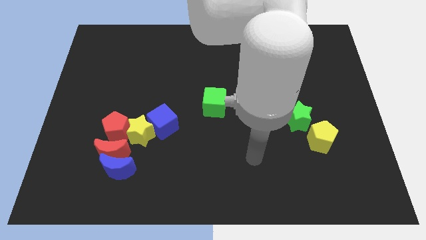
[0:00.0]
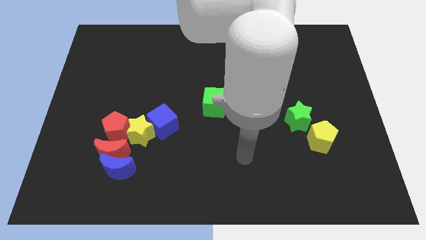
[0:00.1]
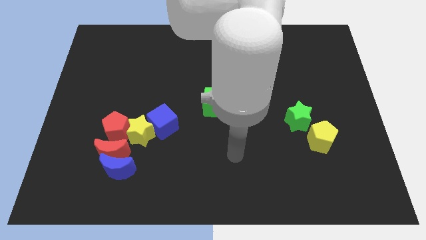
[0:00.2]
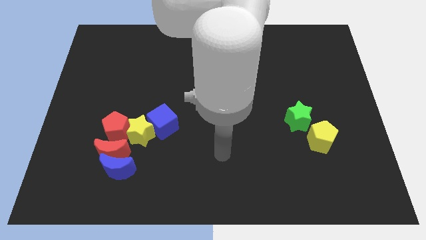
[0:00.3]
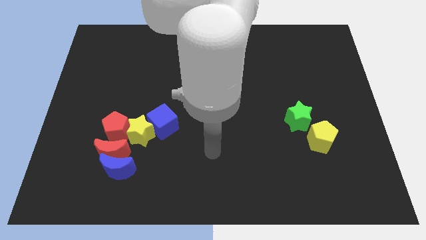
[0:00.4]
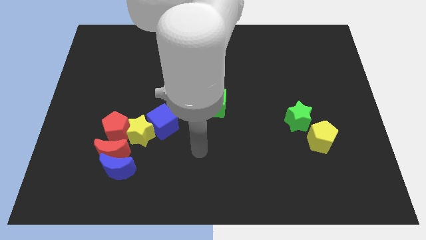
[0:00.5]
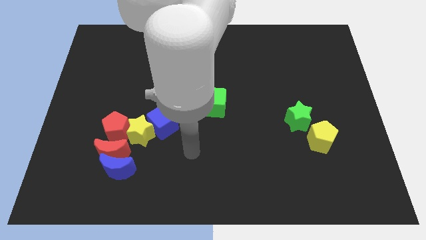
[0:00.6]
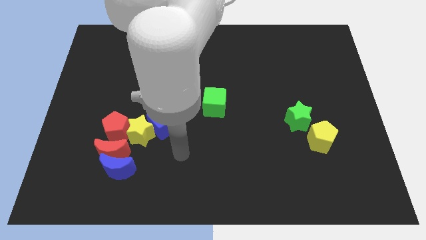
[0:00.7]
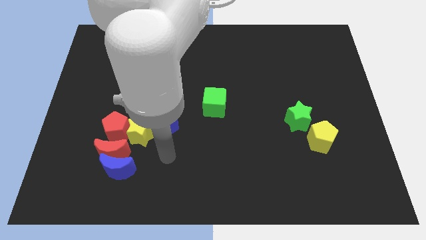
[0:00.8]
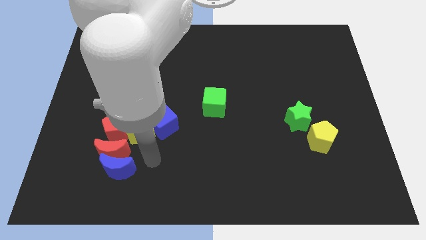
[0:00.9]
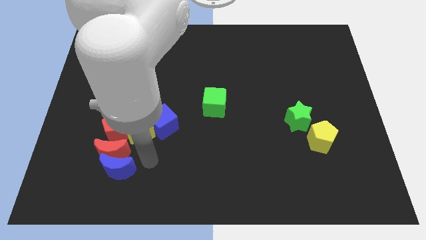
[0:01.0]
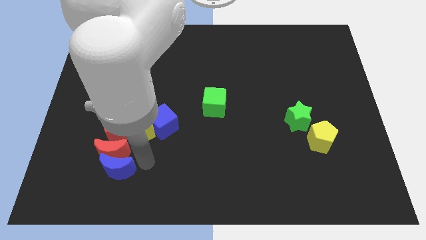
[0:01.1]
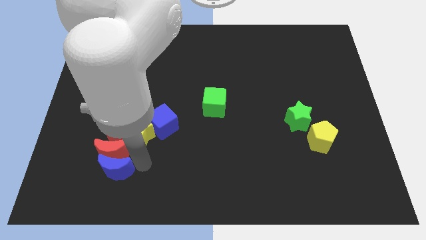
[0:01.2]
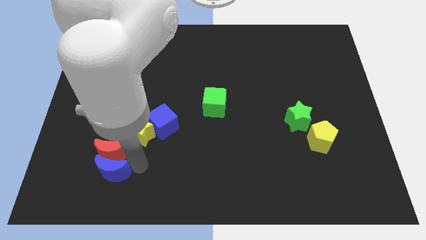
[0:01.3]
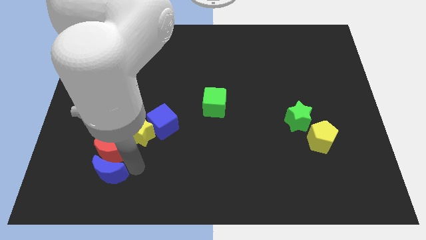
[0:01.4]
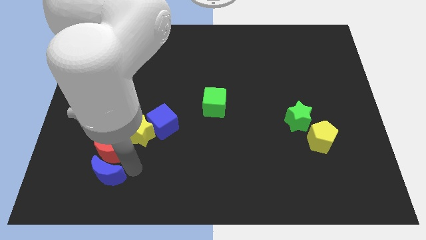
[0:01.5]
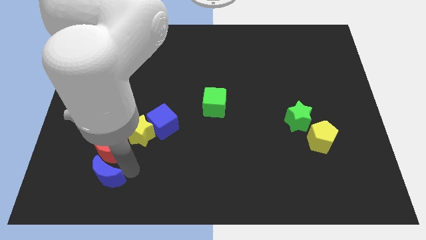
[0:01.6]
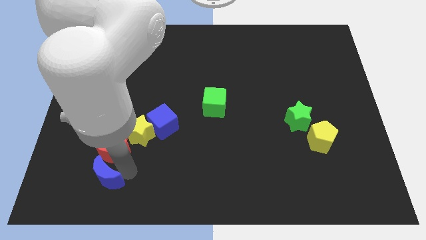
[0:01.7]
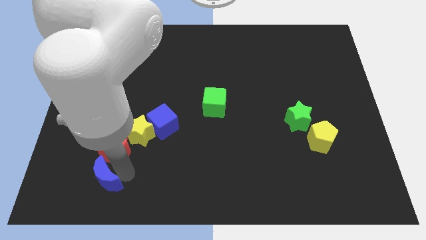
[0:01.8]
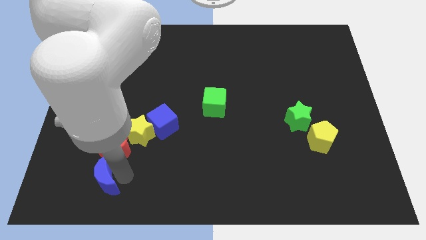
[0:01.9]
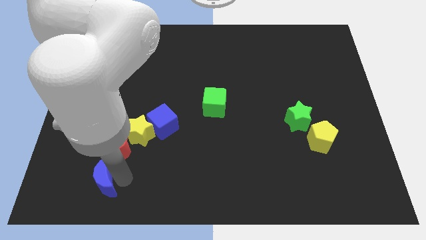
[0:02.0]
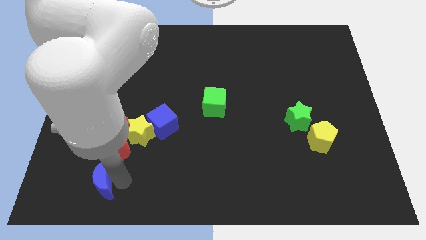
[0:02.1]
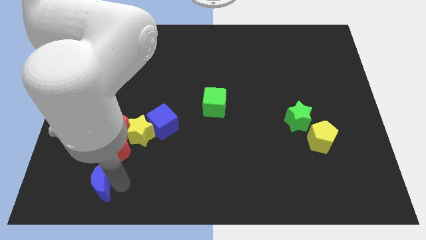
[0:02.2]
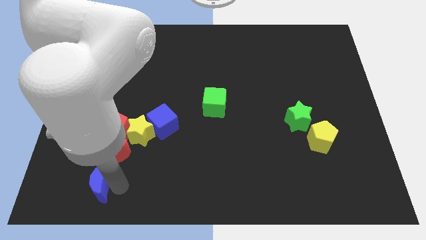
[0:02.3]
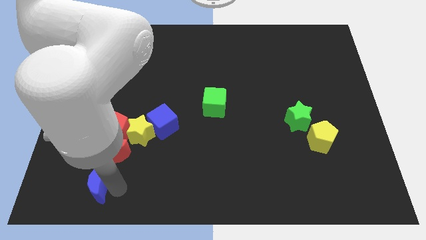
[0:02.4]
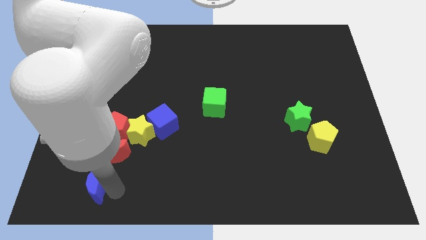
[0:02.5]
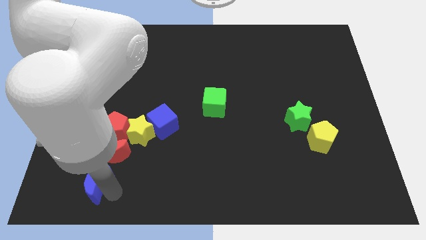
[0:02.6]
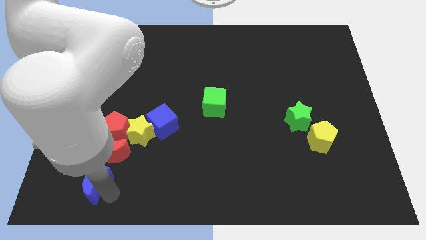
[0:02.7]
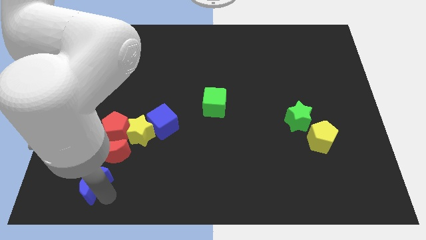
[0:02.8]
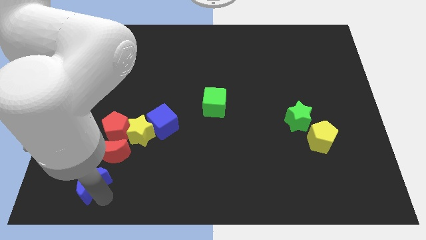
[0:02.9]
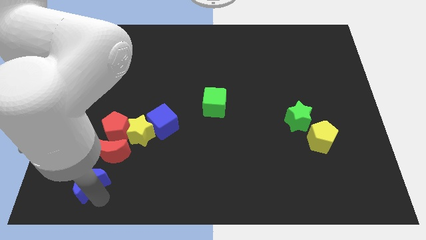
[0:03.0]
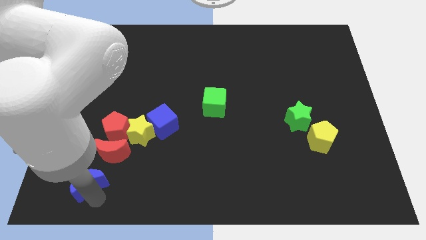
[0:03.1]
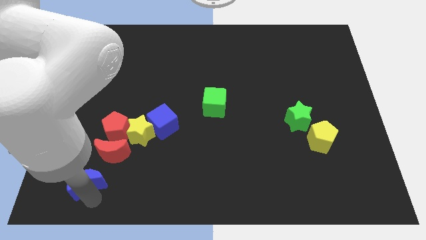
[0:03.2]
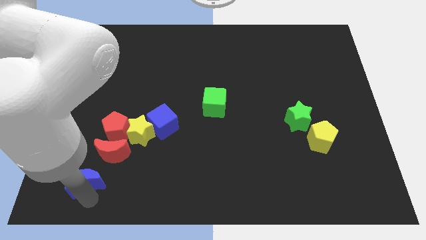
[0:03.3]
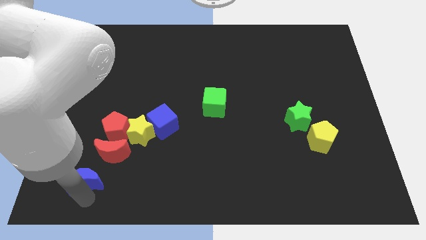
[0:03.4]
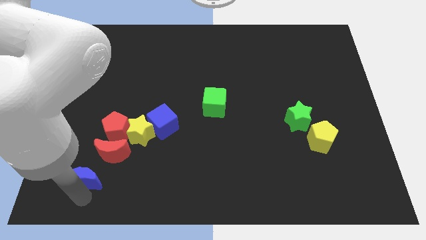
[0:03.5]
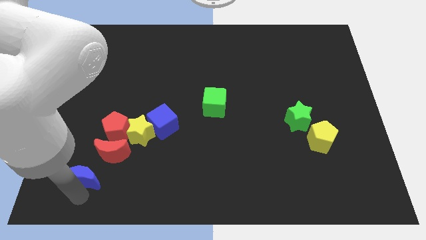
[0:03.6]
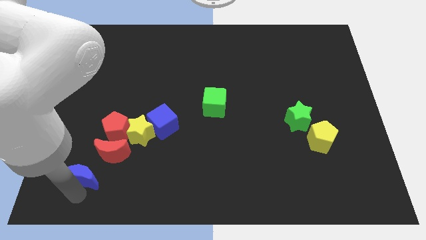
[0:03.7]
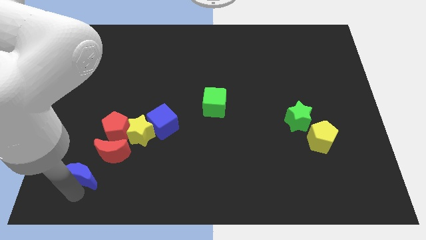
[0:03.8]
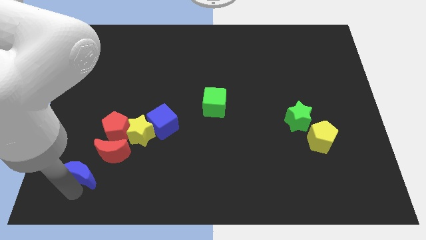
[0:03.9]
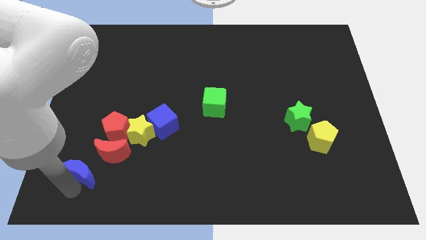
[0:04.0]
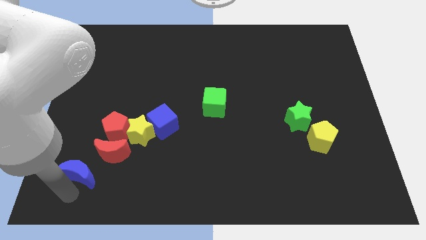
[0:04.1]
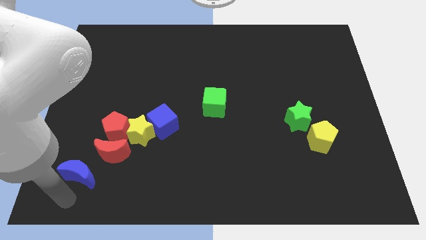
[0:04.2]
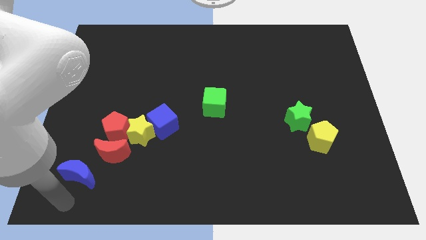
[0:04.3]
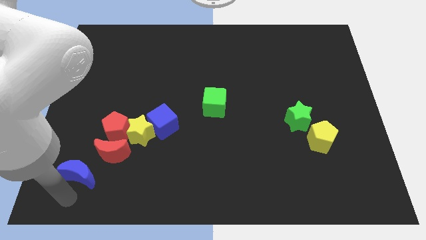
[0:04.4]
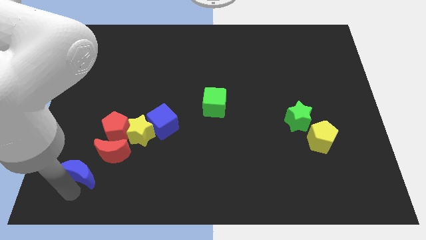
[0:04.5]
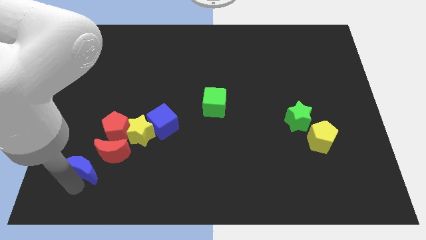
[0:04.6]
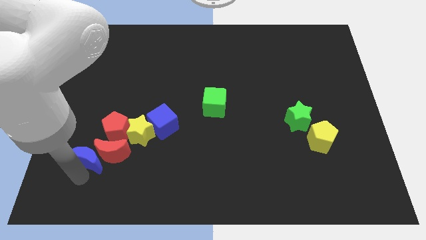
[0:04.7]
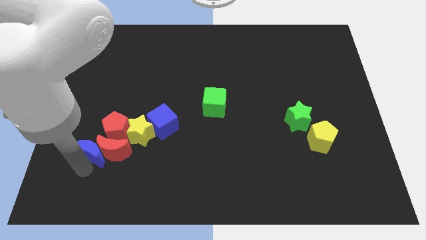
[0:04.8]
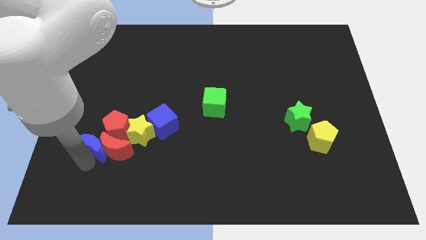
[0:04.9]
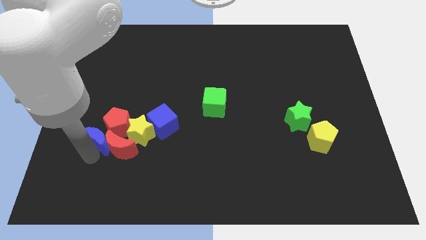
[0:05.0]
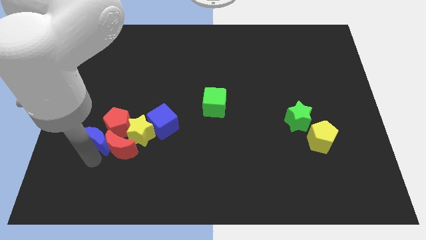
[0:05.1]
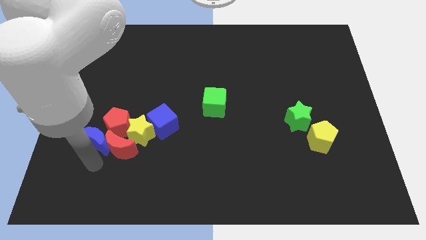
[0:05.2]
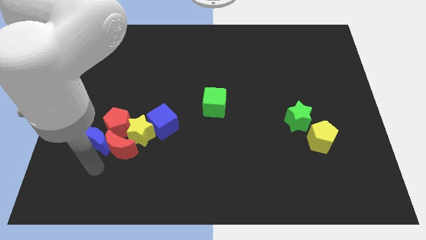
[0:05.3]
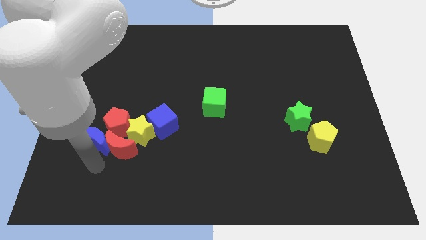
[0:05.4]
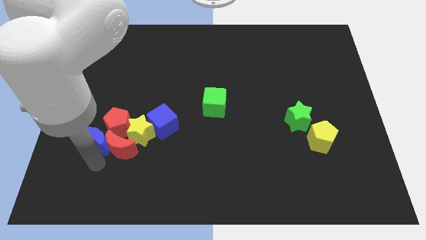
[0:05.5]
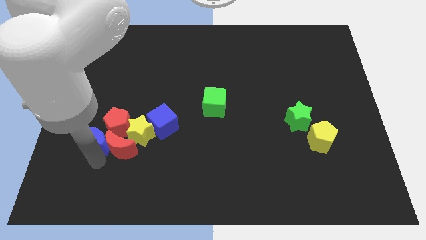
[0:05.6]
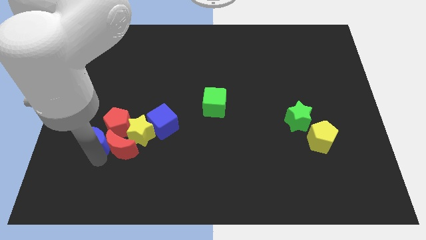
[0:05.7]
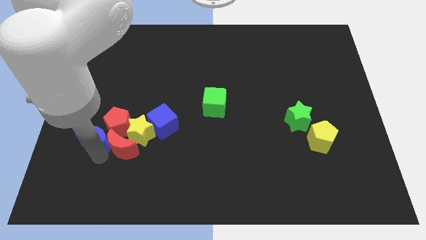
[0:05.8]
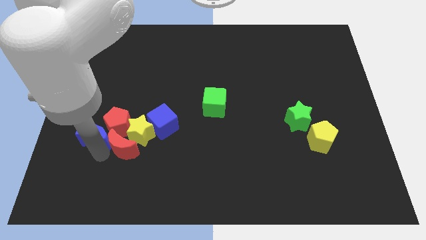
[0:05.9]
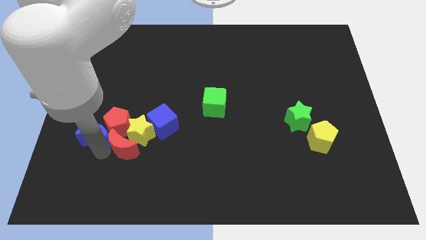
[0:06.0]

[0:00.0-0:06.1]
push the blue moon somewhat up

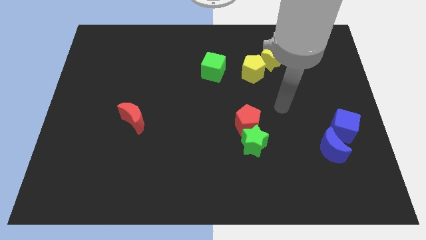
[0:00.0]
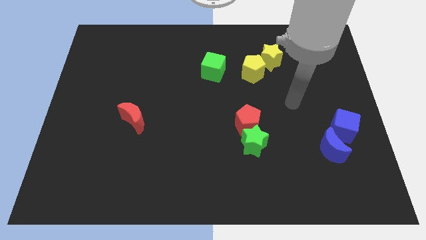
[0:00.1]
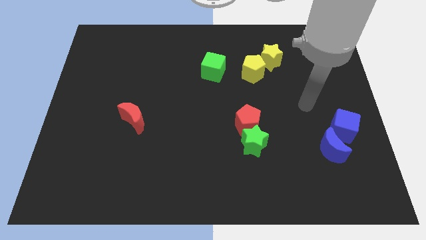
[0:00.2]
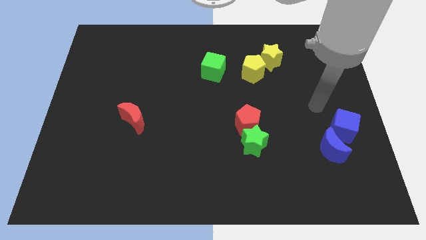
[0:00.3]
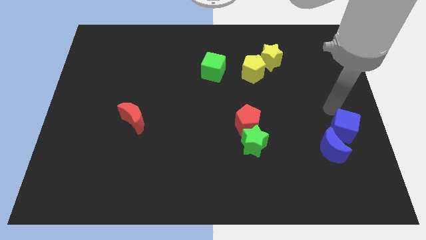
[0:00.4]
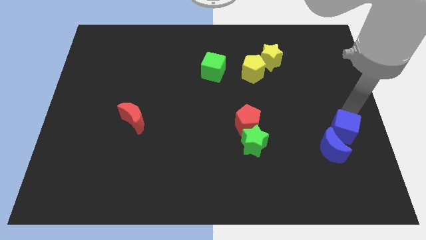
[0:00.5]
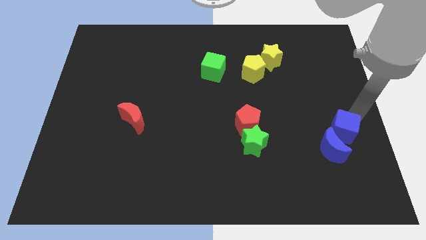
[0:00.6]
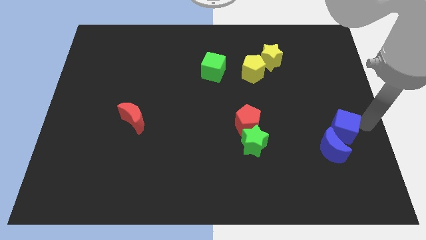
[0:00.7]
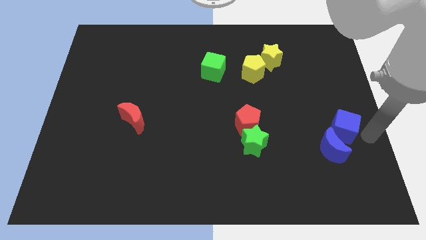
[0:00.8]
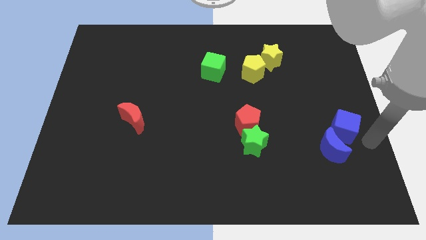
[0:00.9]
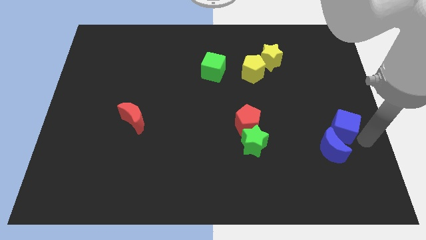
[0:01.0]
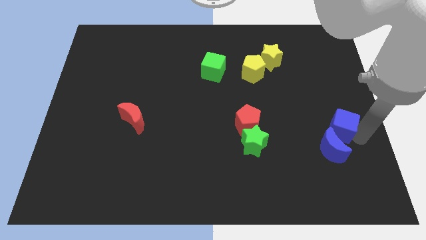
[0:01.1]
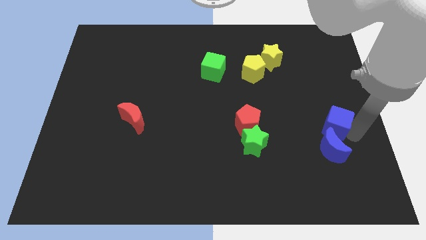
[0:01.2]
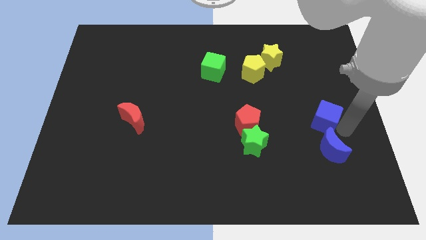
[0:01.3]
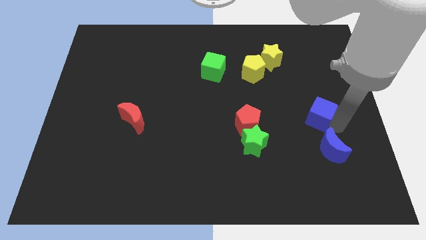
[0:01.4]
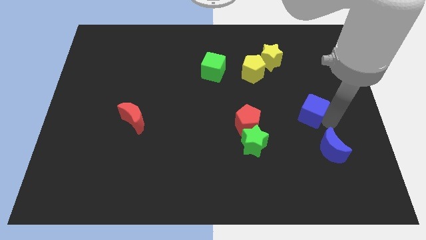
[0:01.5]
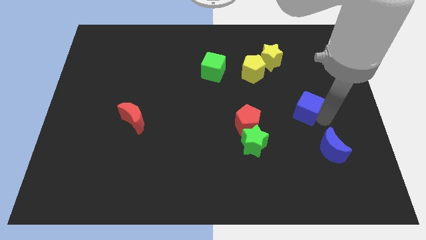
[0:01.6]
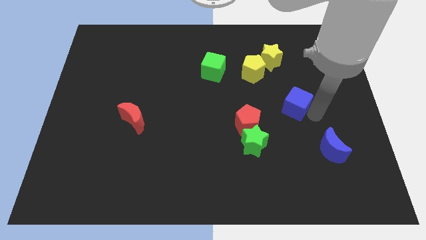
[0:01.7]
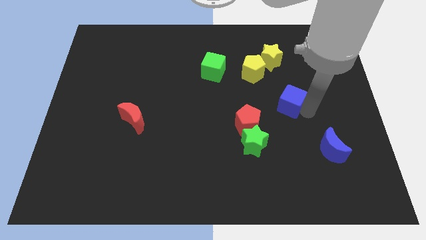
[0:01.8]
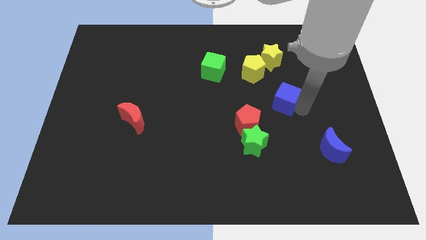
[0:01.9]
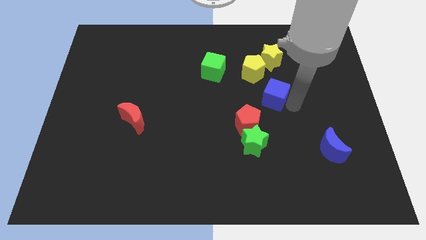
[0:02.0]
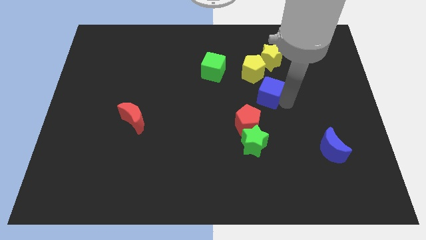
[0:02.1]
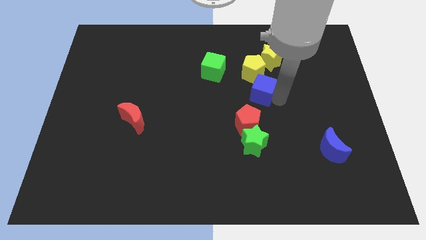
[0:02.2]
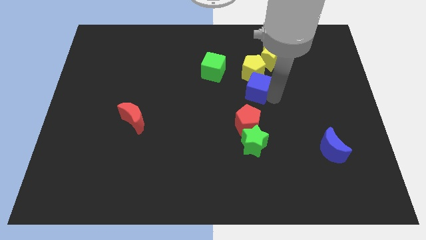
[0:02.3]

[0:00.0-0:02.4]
slide the blue cube diagonally upwards and to the left
